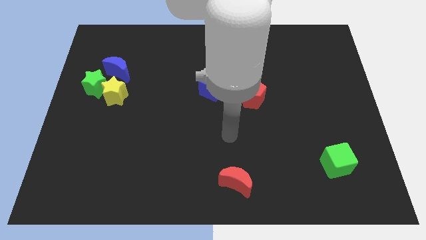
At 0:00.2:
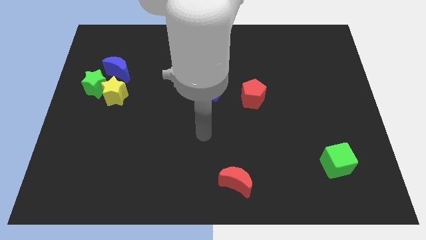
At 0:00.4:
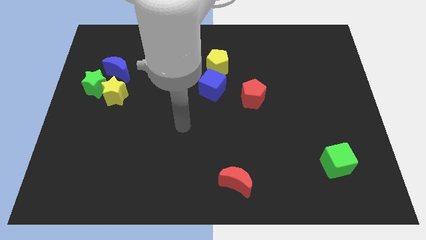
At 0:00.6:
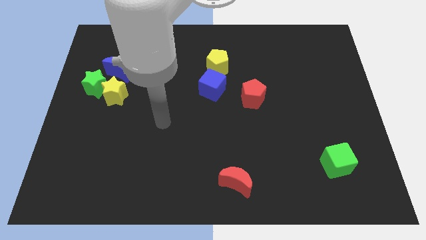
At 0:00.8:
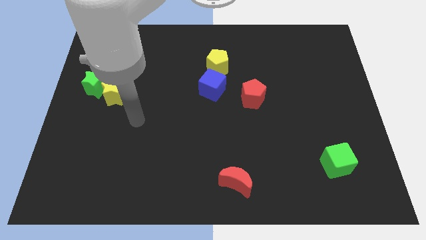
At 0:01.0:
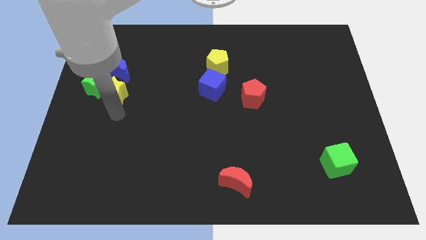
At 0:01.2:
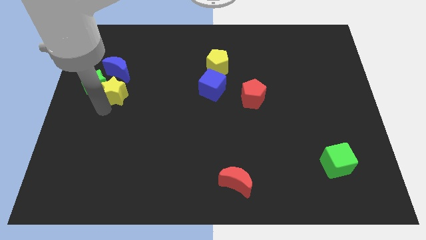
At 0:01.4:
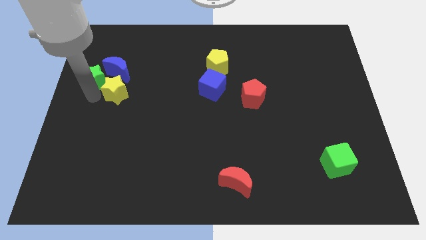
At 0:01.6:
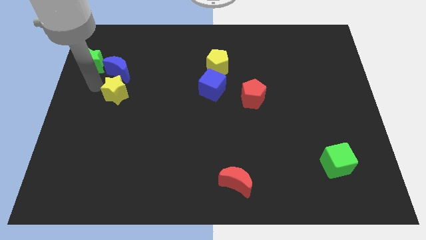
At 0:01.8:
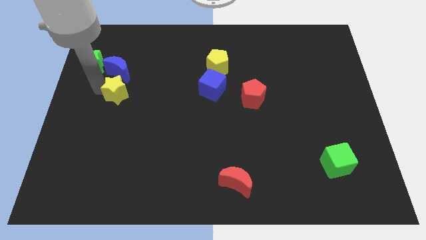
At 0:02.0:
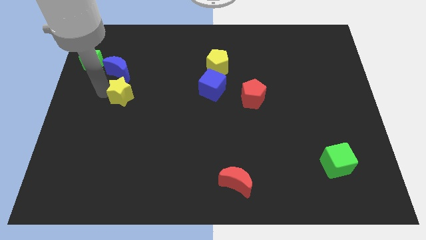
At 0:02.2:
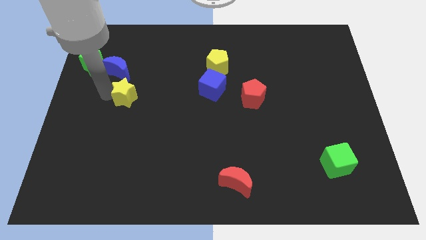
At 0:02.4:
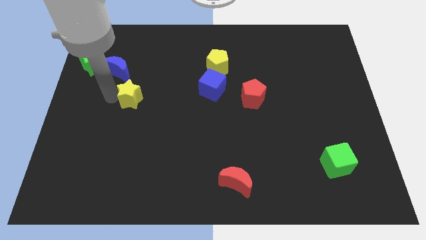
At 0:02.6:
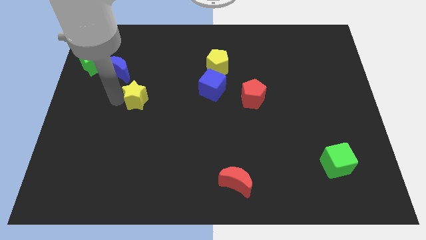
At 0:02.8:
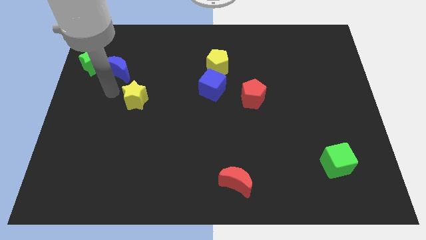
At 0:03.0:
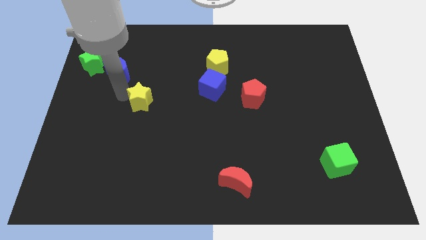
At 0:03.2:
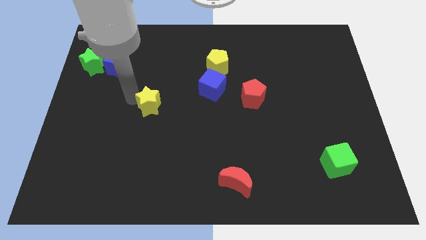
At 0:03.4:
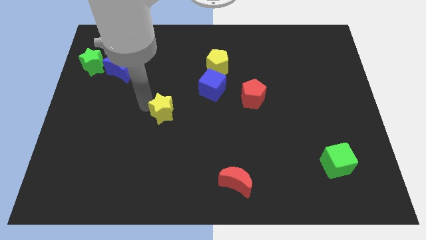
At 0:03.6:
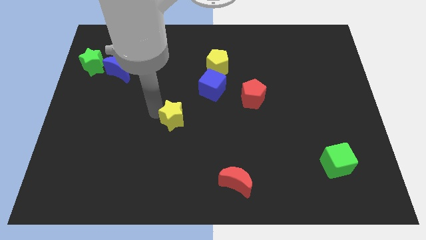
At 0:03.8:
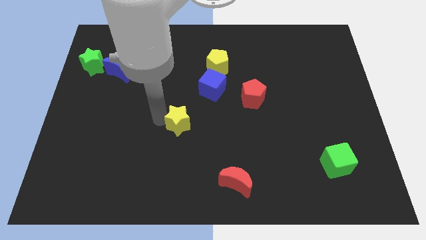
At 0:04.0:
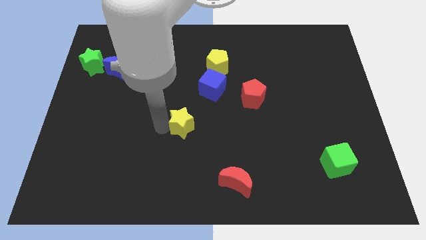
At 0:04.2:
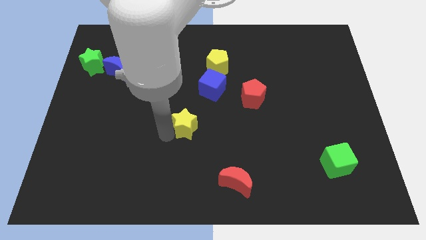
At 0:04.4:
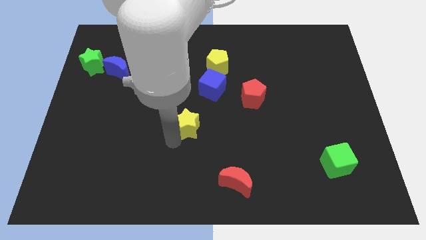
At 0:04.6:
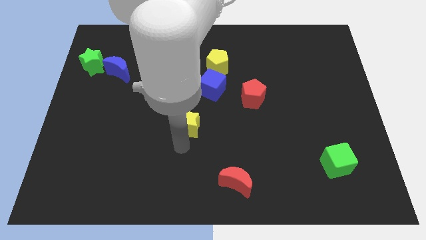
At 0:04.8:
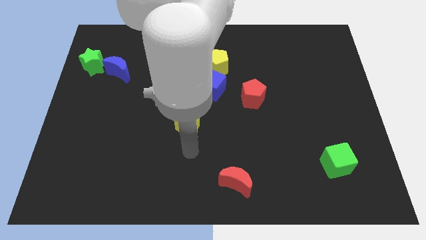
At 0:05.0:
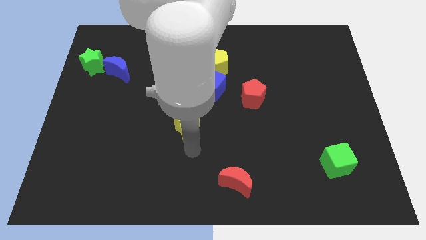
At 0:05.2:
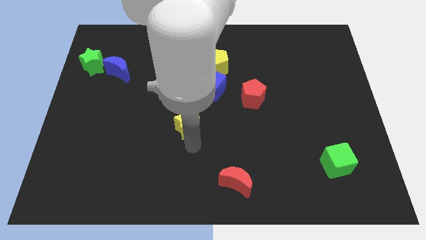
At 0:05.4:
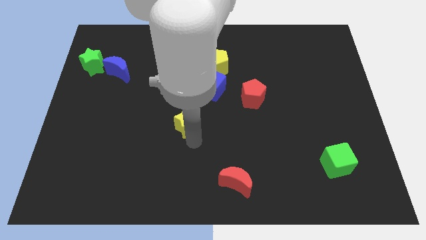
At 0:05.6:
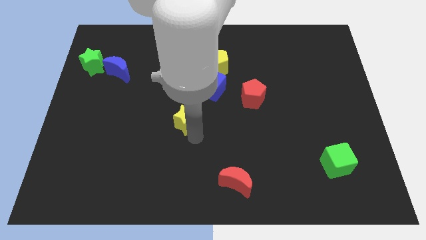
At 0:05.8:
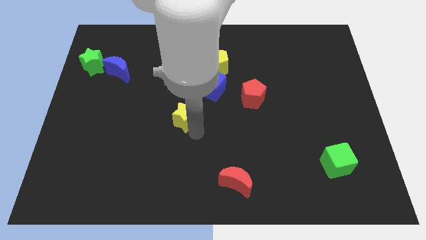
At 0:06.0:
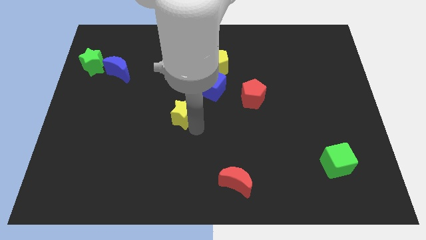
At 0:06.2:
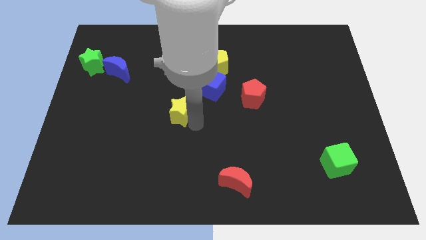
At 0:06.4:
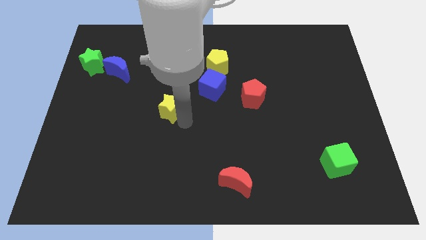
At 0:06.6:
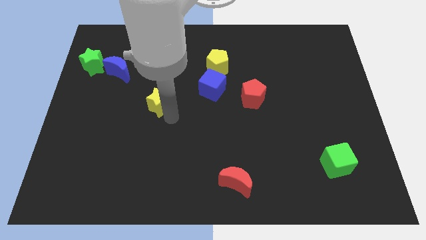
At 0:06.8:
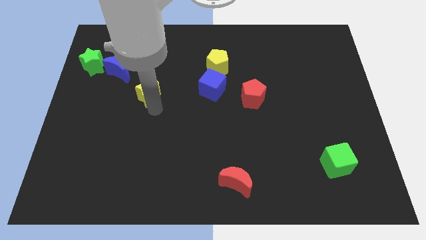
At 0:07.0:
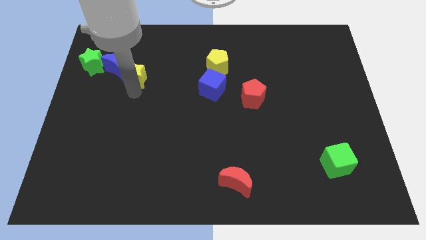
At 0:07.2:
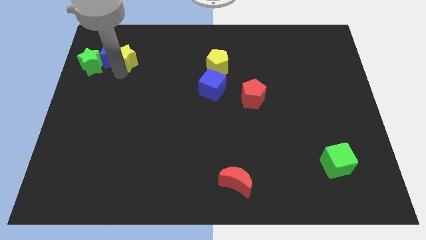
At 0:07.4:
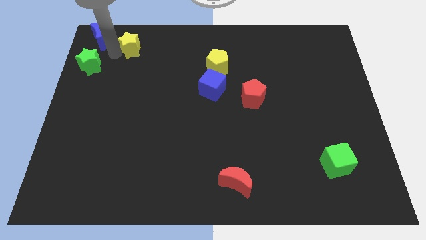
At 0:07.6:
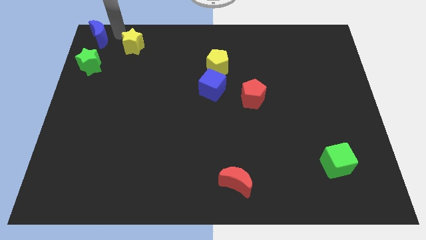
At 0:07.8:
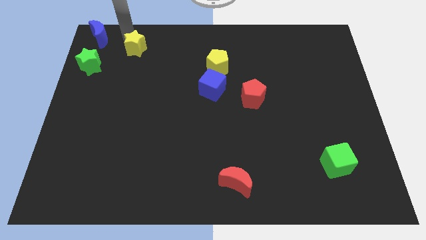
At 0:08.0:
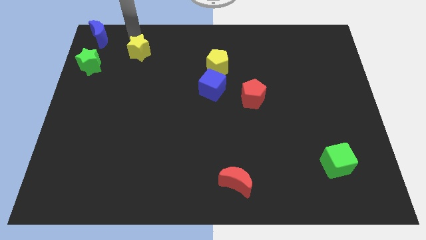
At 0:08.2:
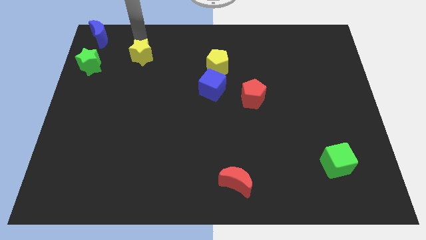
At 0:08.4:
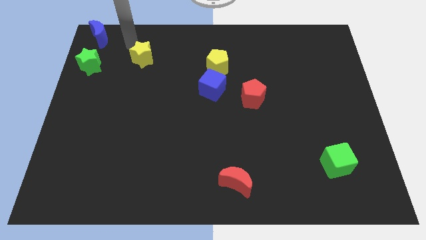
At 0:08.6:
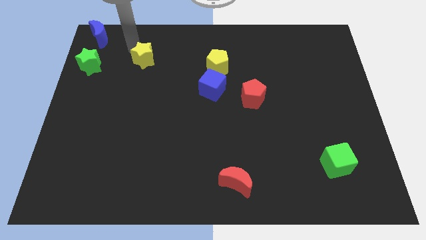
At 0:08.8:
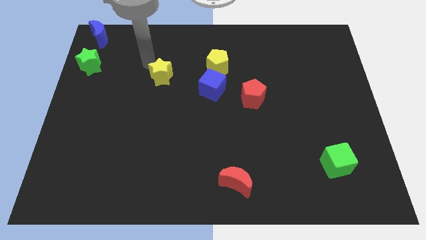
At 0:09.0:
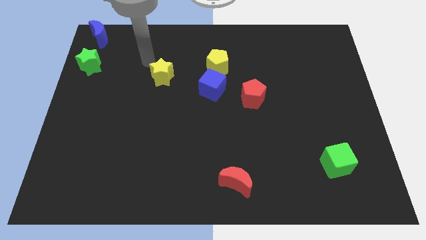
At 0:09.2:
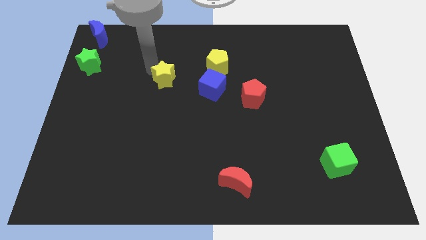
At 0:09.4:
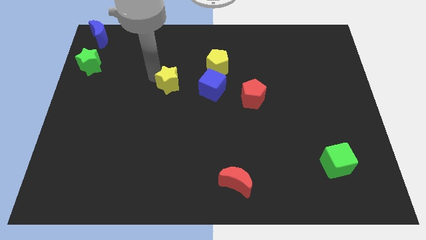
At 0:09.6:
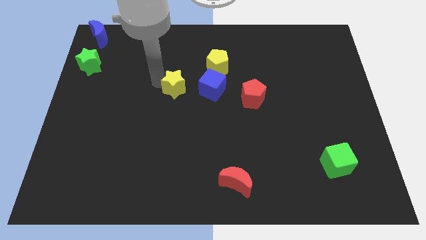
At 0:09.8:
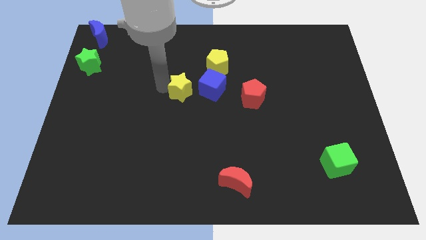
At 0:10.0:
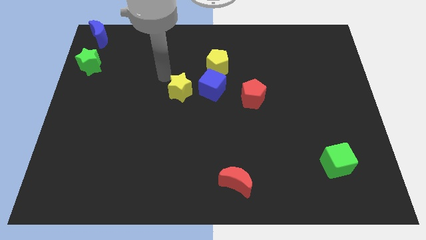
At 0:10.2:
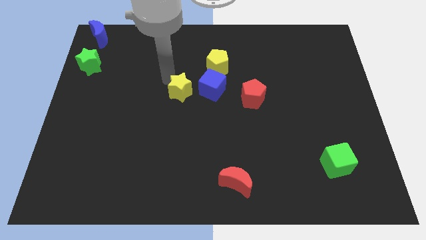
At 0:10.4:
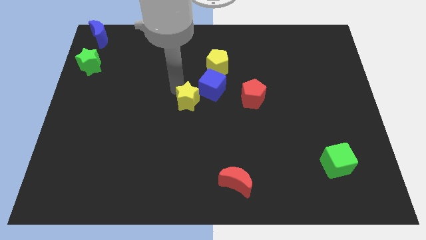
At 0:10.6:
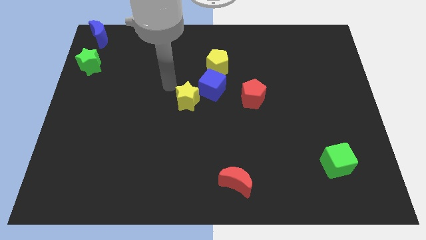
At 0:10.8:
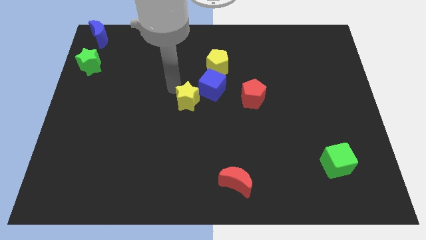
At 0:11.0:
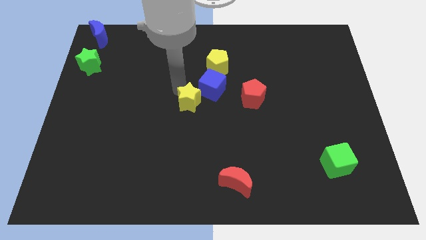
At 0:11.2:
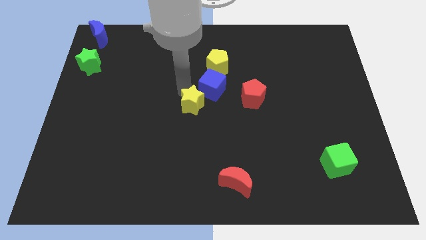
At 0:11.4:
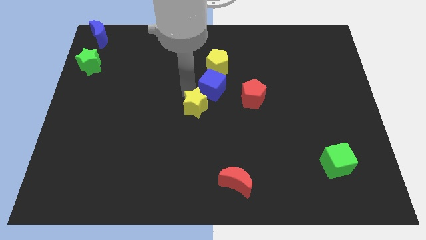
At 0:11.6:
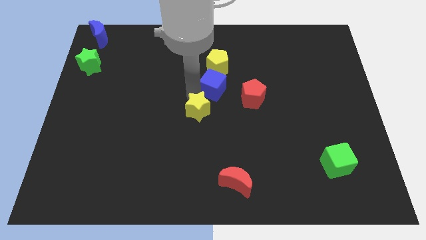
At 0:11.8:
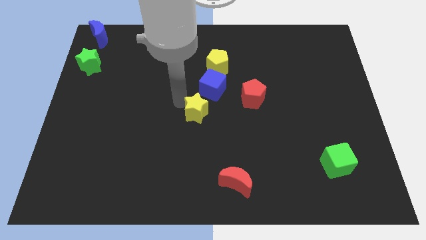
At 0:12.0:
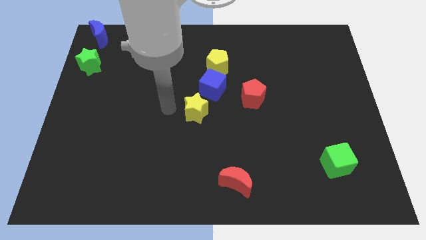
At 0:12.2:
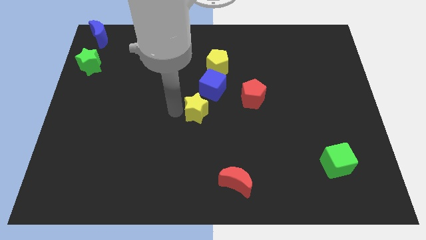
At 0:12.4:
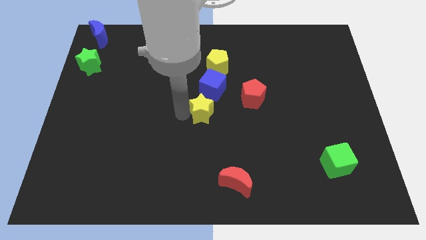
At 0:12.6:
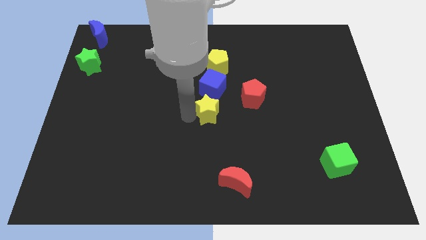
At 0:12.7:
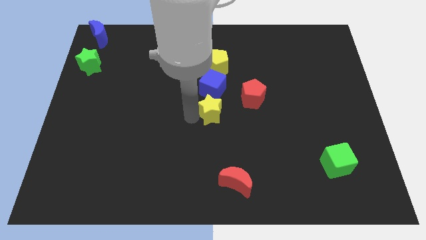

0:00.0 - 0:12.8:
put the yellow star to the bottom left side of the red pentagon

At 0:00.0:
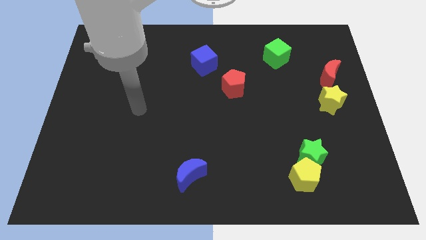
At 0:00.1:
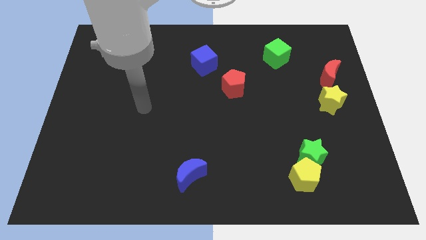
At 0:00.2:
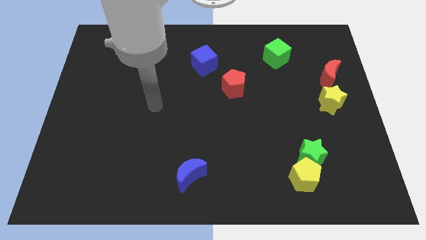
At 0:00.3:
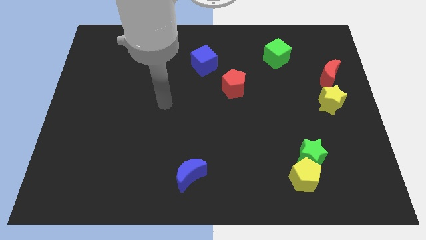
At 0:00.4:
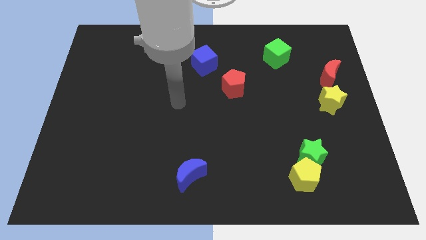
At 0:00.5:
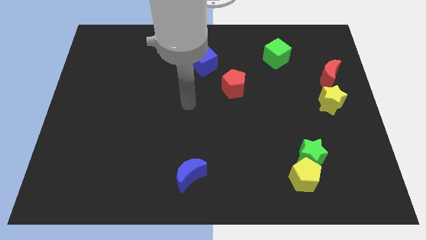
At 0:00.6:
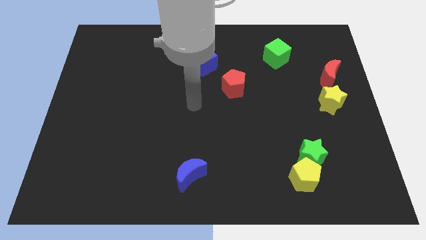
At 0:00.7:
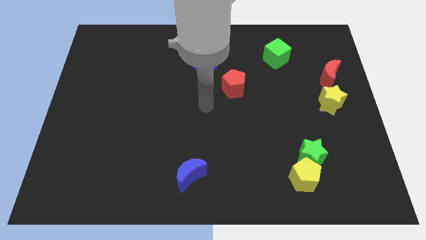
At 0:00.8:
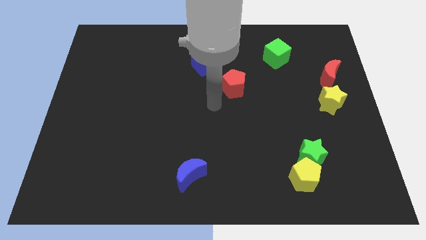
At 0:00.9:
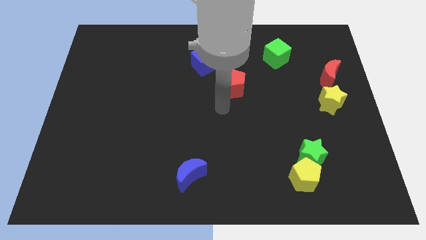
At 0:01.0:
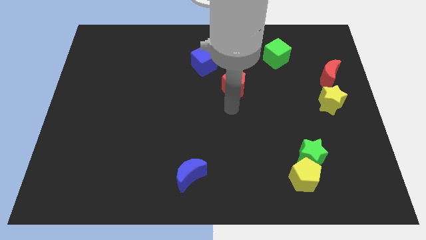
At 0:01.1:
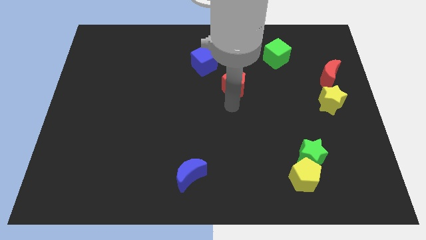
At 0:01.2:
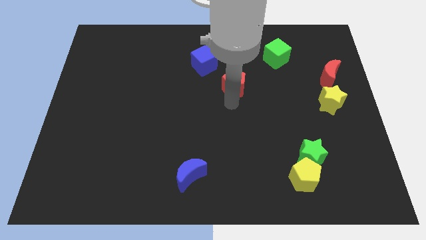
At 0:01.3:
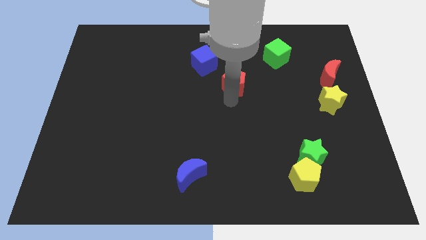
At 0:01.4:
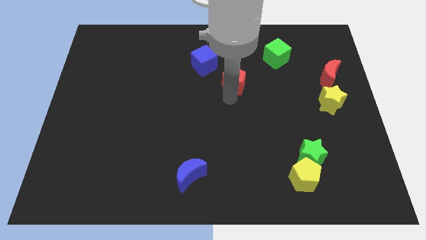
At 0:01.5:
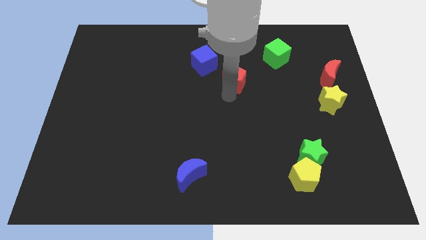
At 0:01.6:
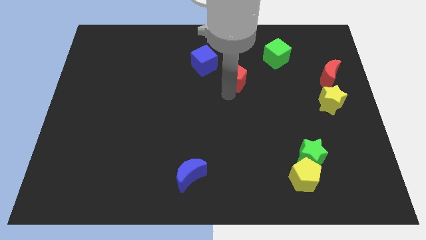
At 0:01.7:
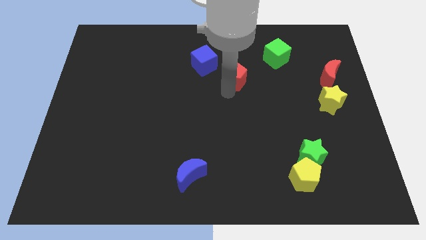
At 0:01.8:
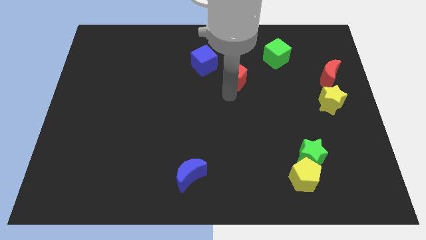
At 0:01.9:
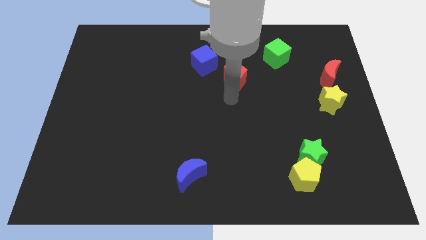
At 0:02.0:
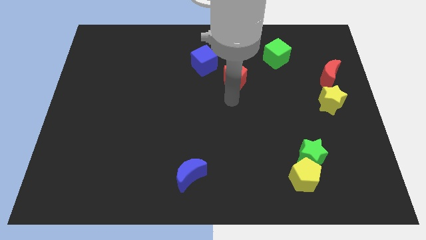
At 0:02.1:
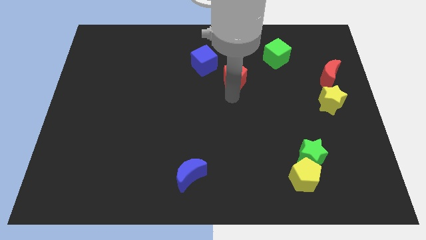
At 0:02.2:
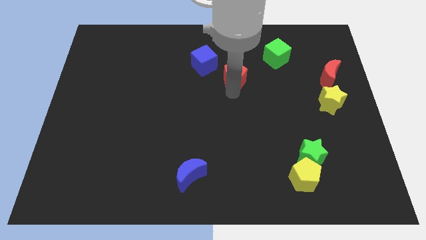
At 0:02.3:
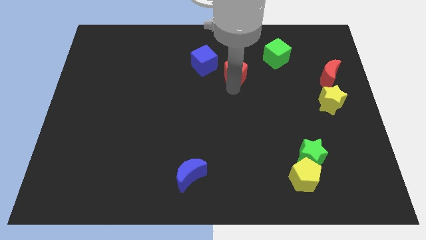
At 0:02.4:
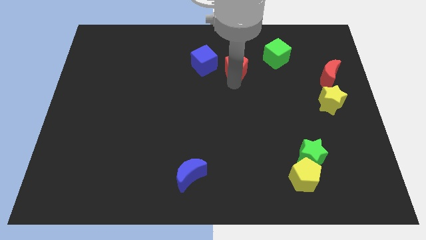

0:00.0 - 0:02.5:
push the red pentagon to the left of the green cube
